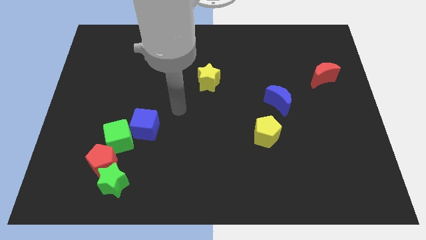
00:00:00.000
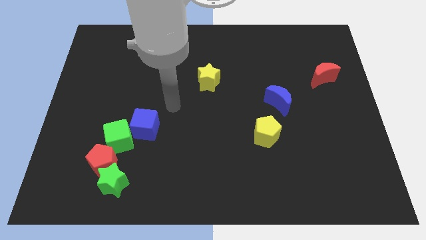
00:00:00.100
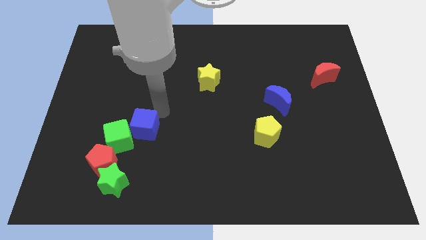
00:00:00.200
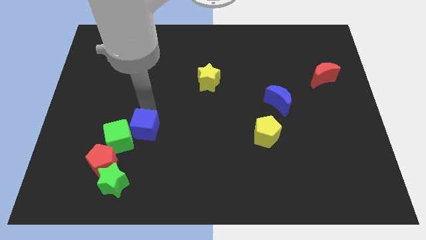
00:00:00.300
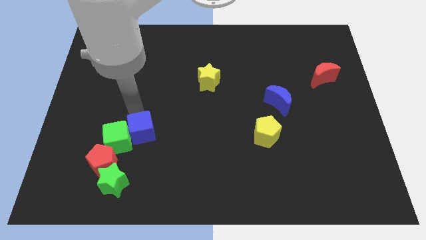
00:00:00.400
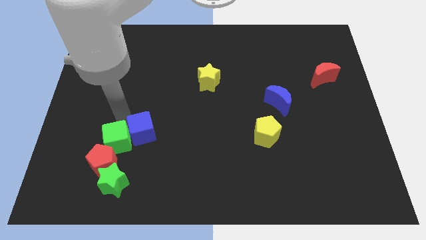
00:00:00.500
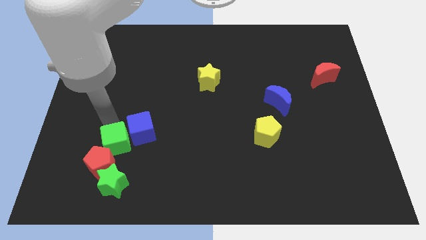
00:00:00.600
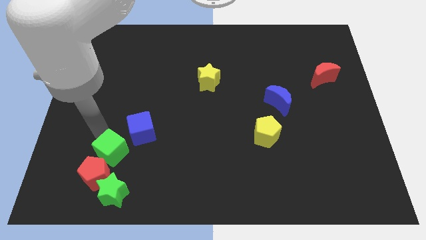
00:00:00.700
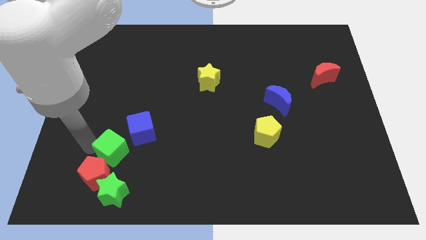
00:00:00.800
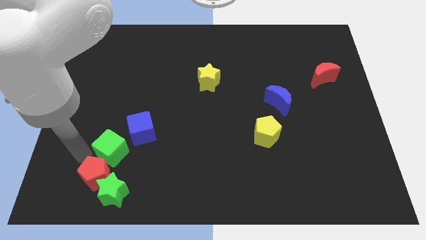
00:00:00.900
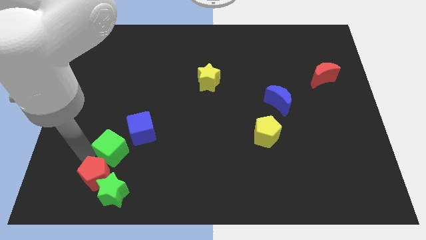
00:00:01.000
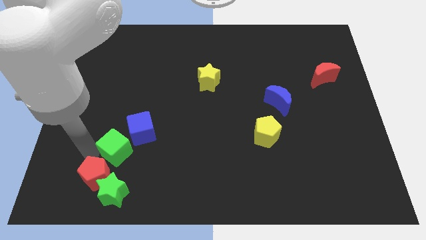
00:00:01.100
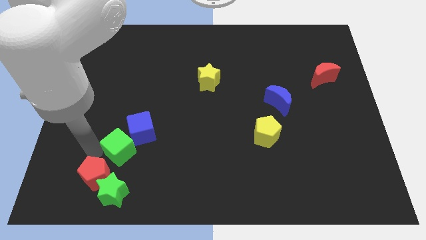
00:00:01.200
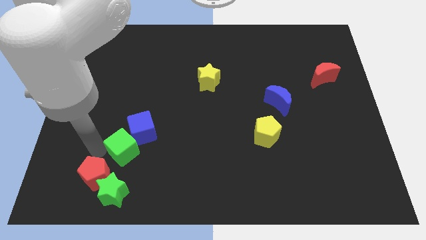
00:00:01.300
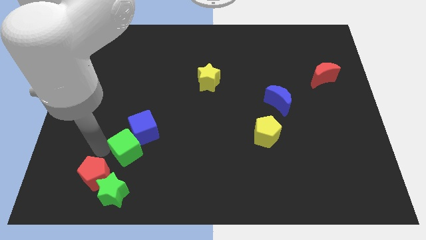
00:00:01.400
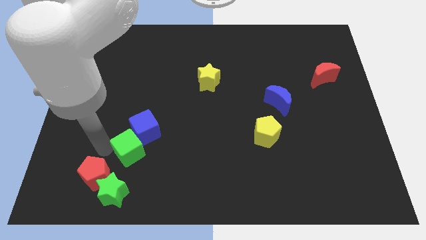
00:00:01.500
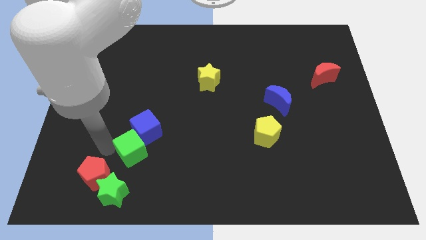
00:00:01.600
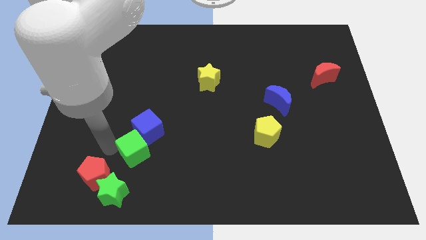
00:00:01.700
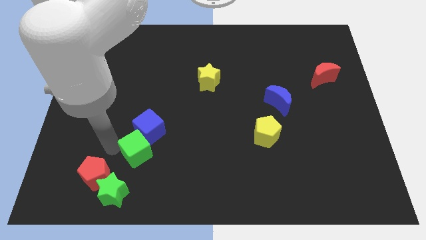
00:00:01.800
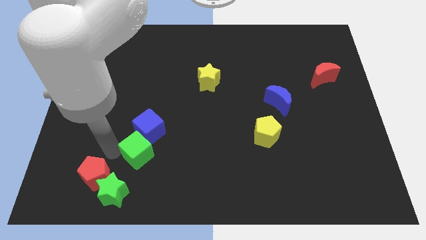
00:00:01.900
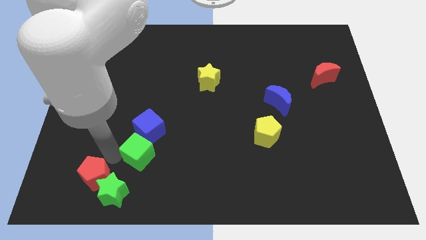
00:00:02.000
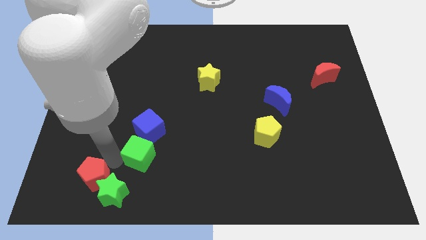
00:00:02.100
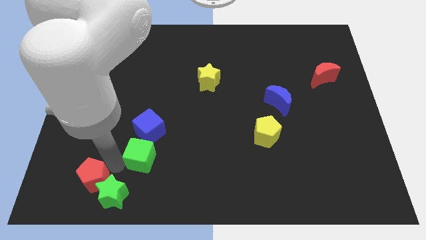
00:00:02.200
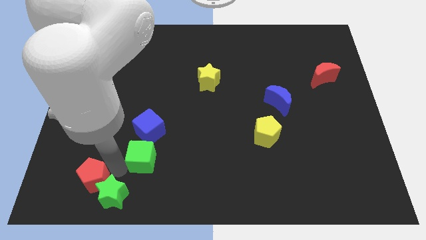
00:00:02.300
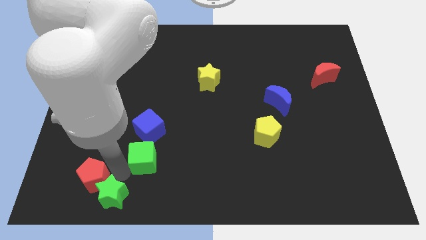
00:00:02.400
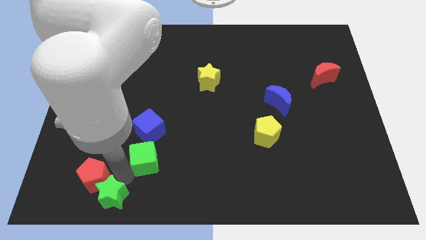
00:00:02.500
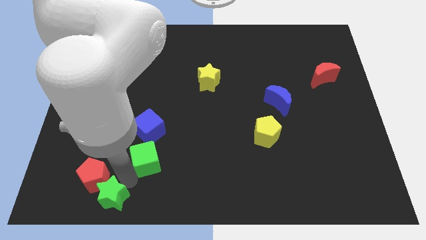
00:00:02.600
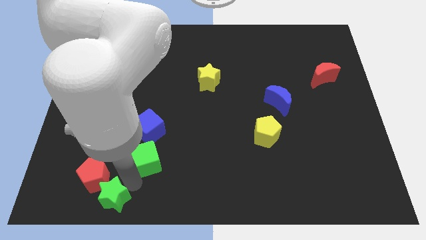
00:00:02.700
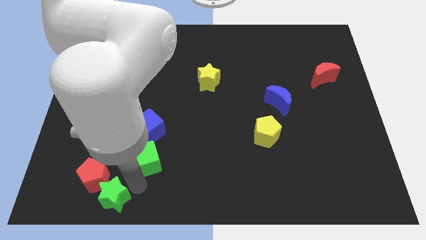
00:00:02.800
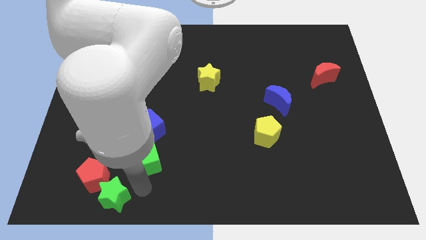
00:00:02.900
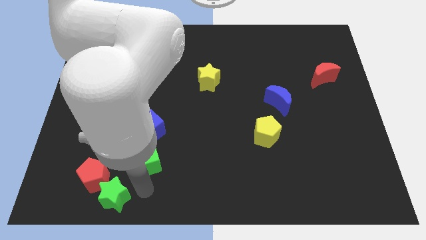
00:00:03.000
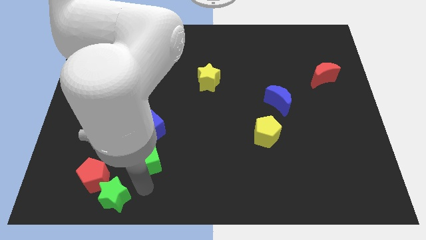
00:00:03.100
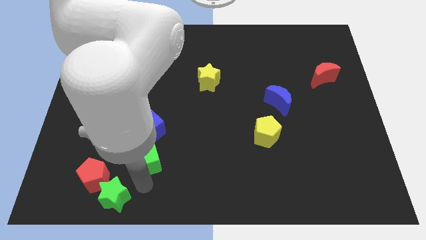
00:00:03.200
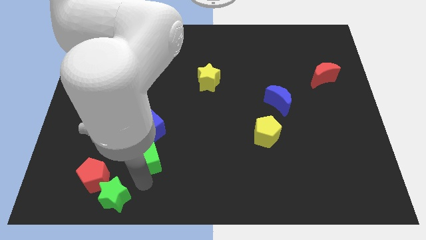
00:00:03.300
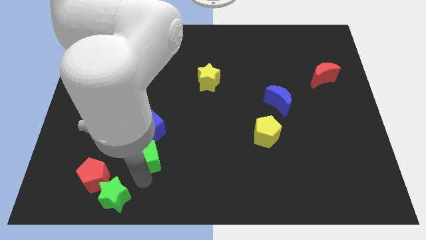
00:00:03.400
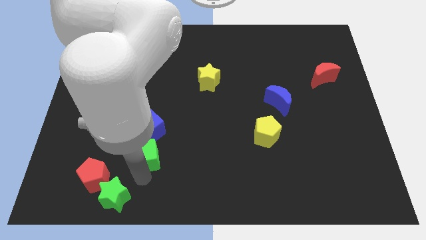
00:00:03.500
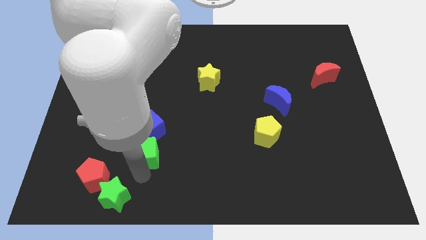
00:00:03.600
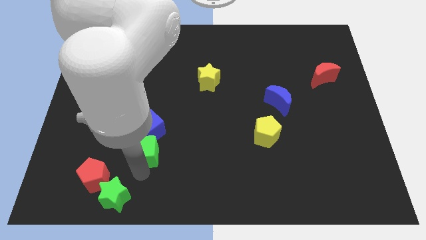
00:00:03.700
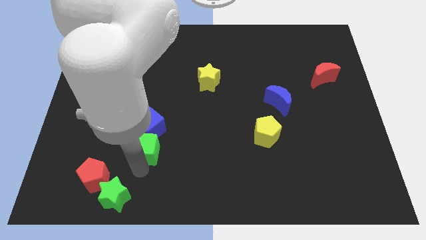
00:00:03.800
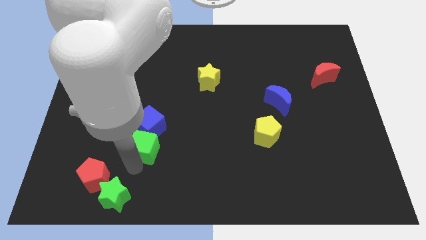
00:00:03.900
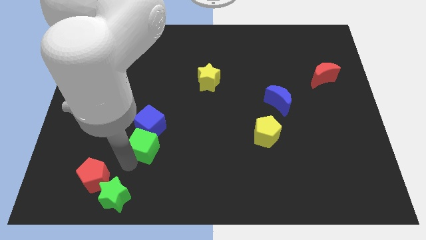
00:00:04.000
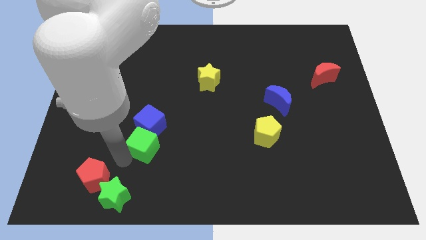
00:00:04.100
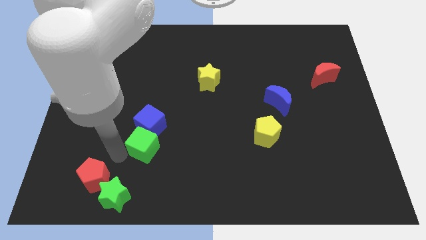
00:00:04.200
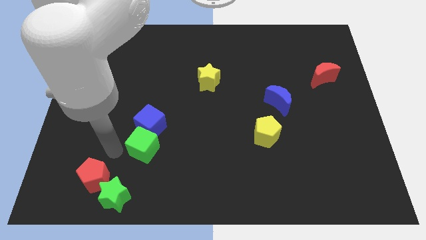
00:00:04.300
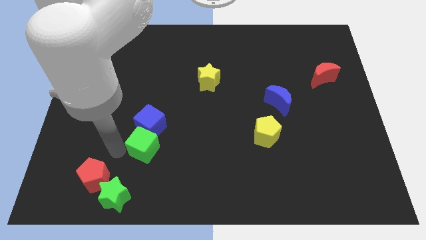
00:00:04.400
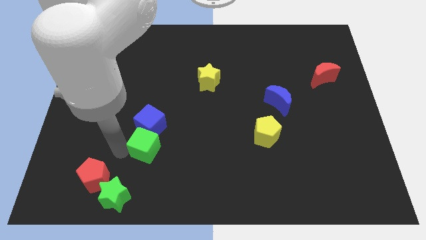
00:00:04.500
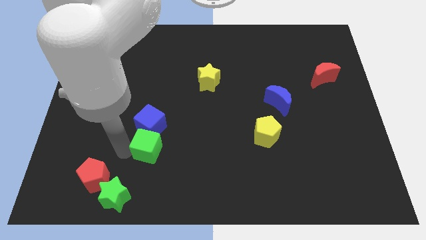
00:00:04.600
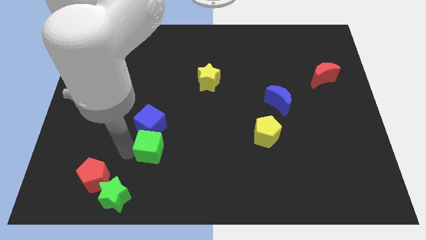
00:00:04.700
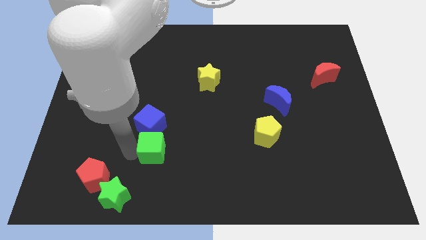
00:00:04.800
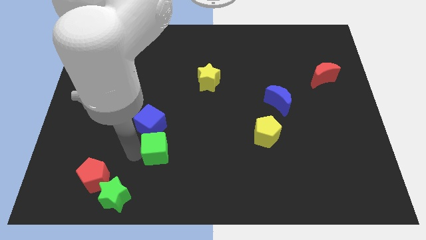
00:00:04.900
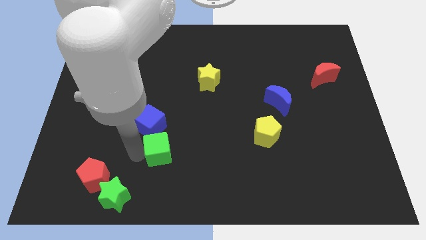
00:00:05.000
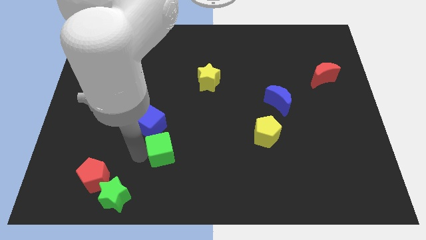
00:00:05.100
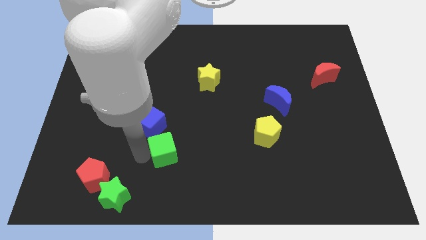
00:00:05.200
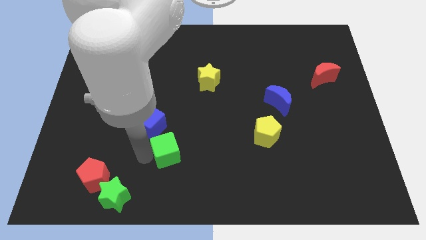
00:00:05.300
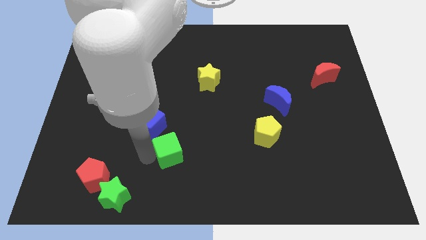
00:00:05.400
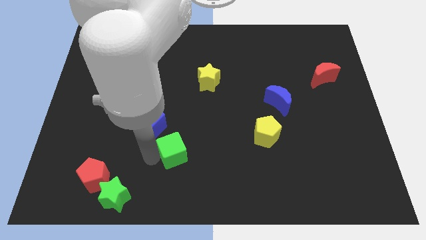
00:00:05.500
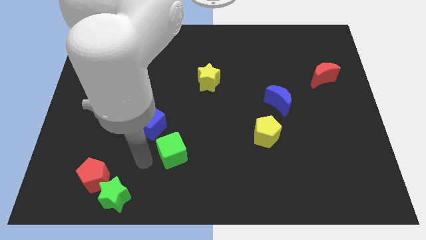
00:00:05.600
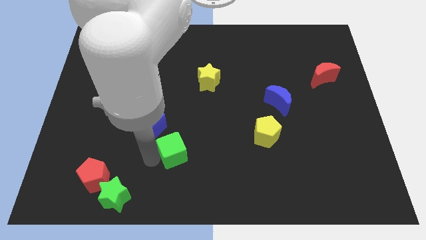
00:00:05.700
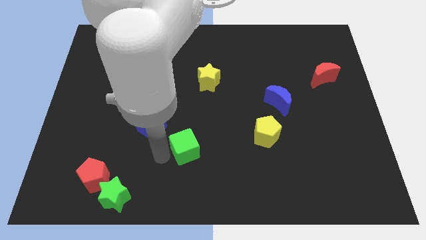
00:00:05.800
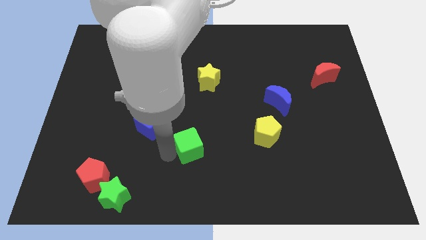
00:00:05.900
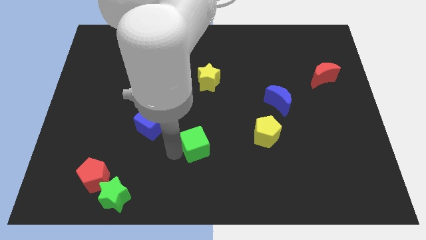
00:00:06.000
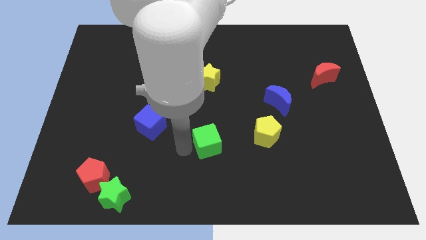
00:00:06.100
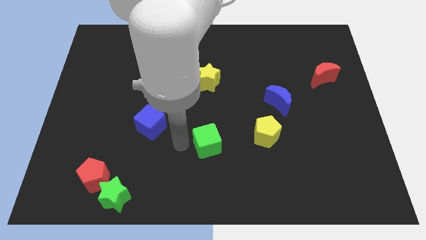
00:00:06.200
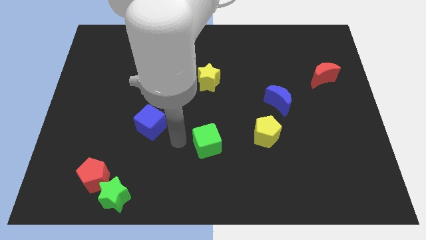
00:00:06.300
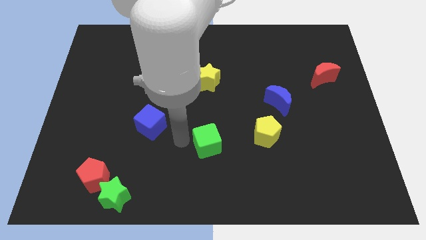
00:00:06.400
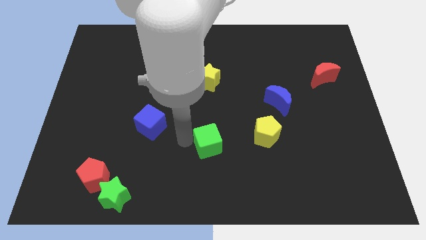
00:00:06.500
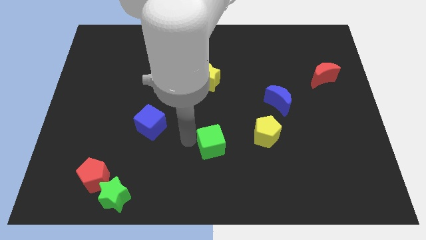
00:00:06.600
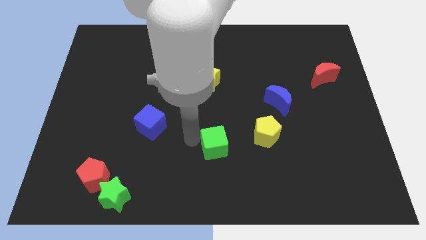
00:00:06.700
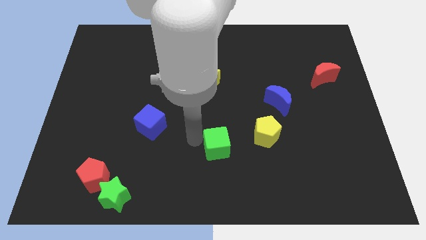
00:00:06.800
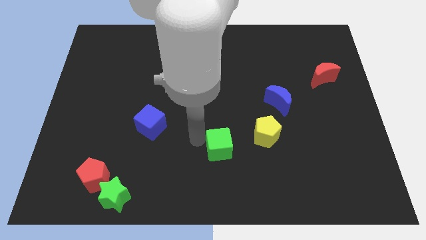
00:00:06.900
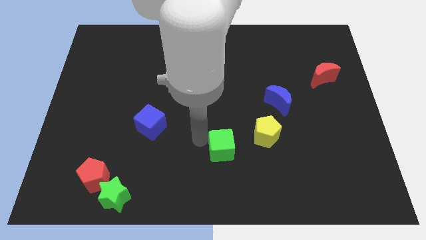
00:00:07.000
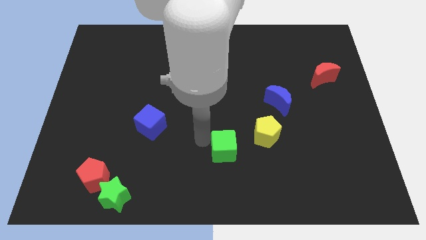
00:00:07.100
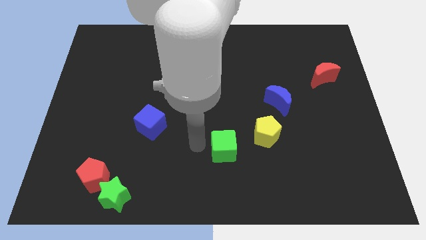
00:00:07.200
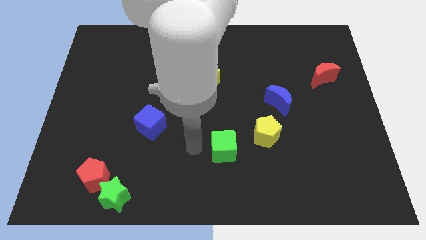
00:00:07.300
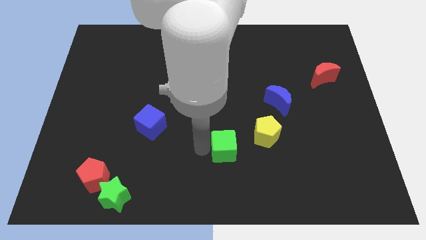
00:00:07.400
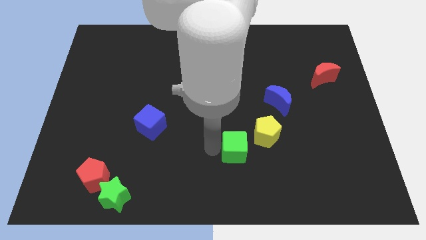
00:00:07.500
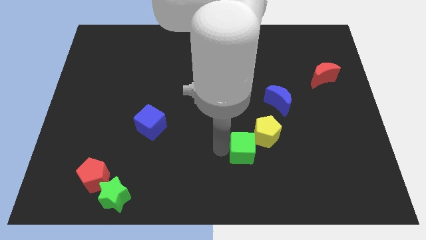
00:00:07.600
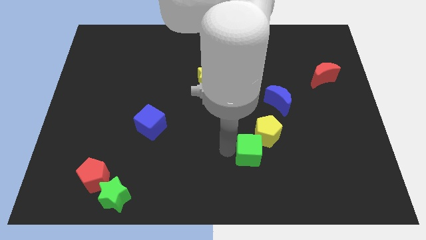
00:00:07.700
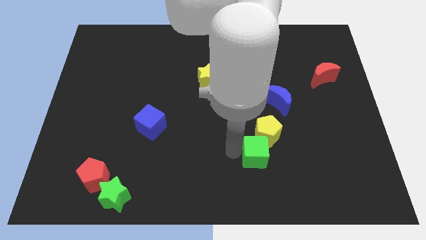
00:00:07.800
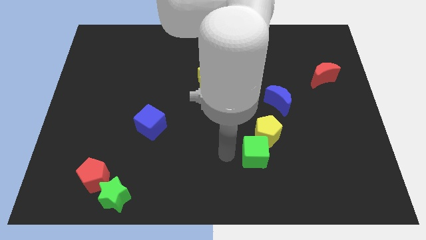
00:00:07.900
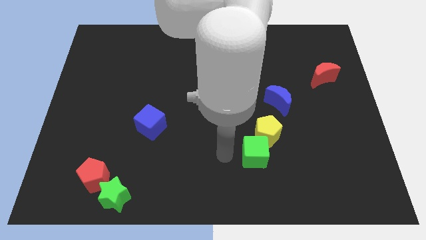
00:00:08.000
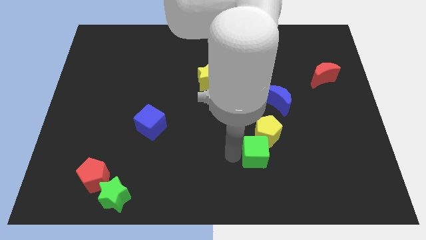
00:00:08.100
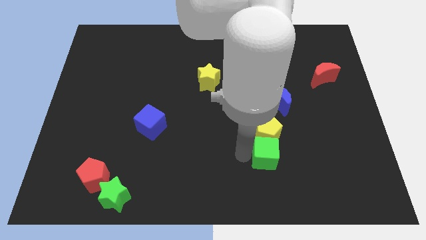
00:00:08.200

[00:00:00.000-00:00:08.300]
move the green cube to the bottom right of the yellow pentagon
